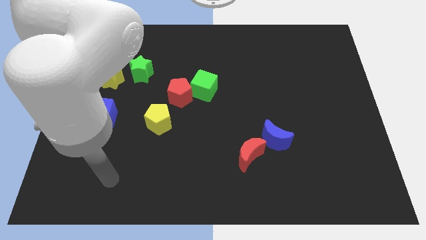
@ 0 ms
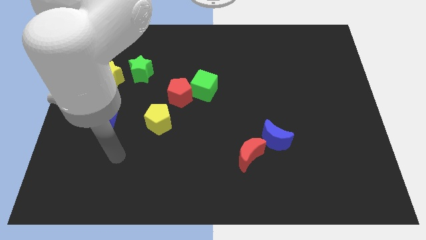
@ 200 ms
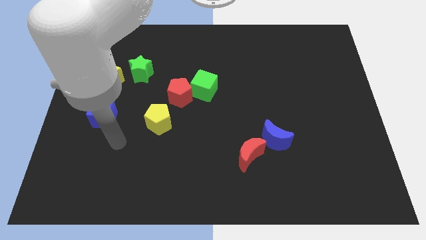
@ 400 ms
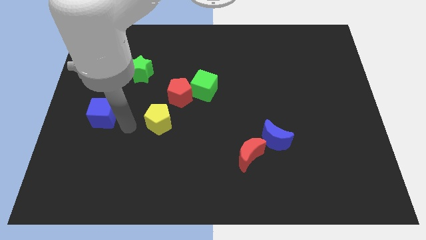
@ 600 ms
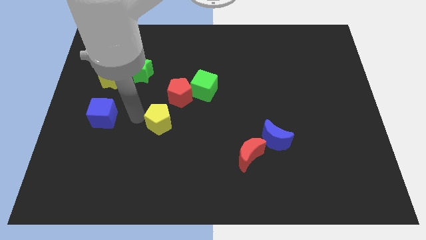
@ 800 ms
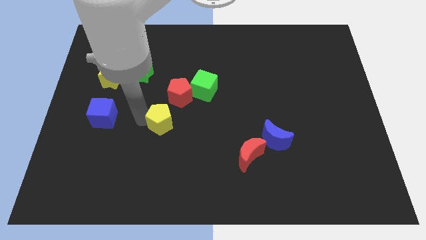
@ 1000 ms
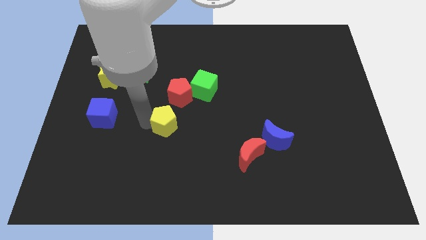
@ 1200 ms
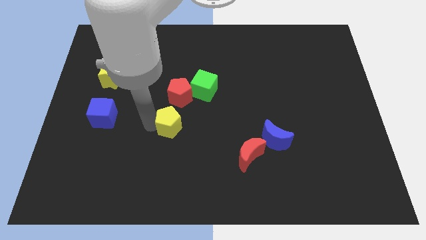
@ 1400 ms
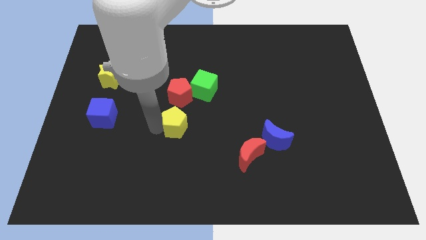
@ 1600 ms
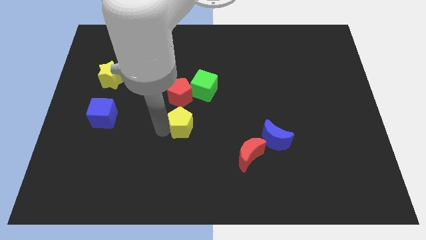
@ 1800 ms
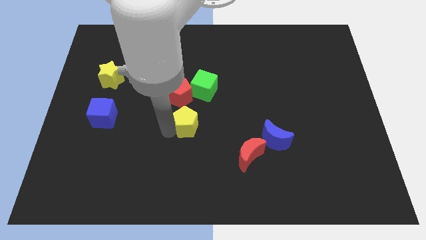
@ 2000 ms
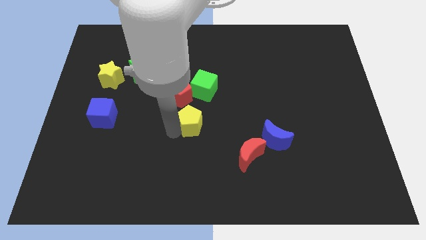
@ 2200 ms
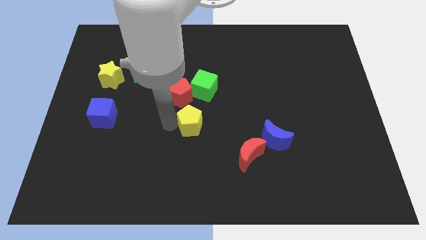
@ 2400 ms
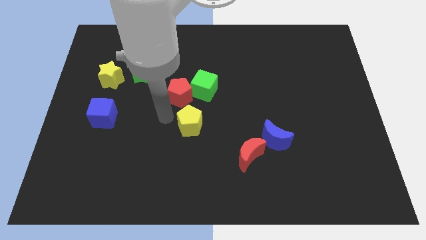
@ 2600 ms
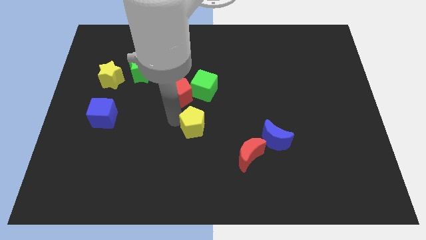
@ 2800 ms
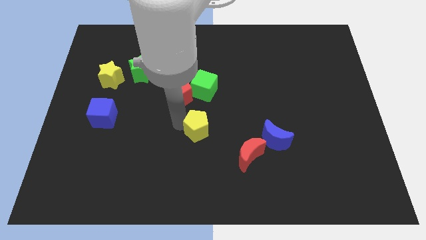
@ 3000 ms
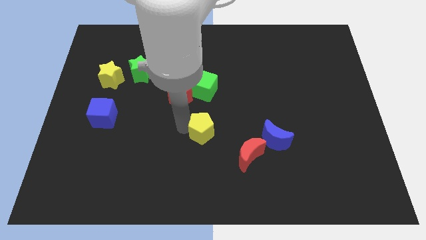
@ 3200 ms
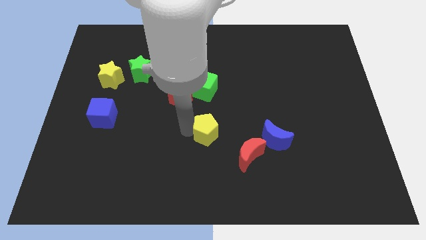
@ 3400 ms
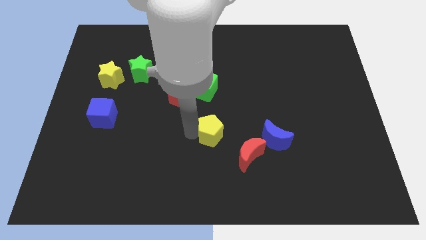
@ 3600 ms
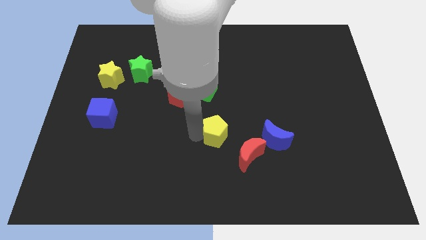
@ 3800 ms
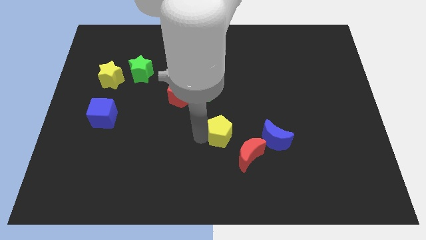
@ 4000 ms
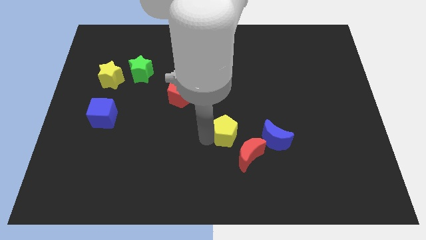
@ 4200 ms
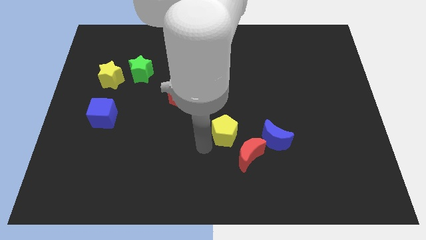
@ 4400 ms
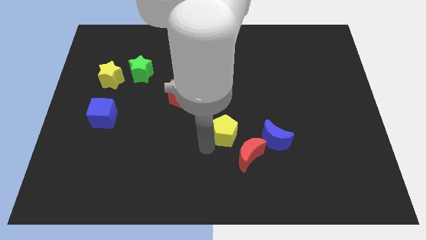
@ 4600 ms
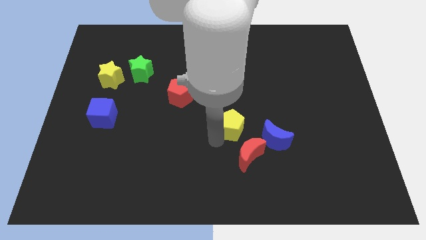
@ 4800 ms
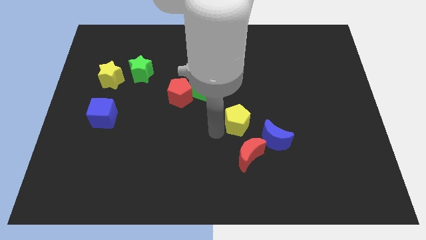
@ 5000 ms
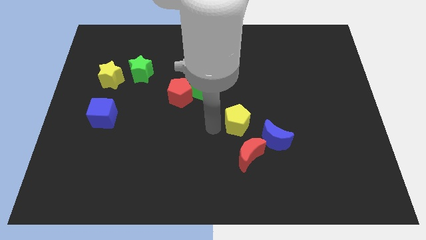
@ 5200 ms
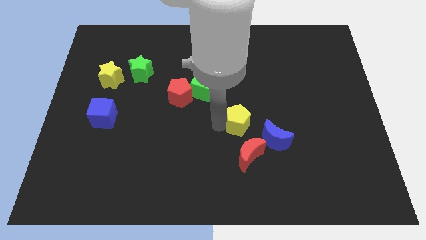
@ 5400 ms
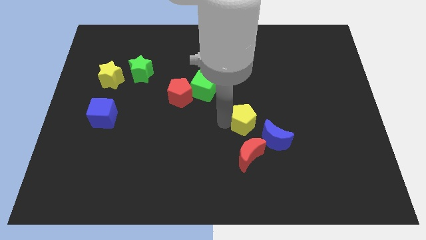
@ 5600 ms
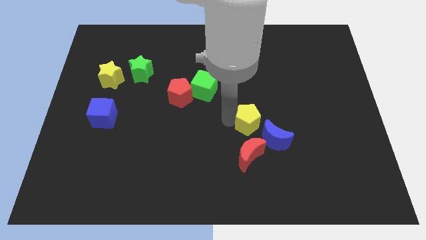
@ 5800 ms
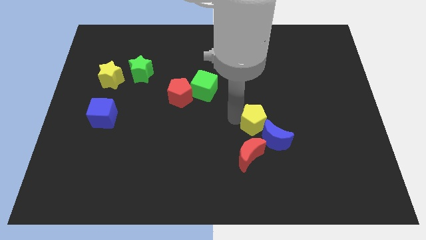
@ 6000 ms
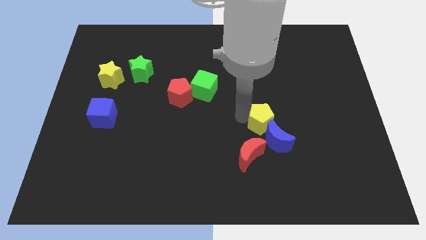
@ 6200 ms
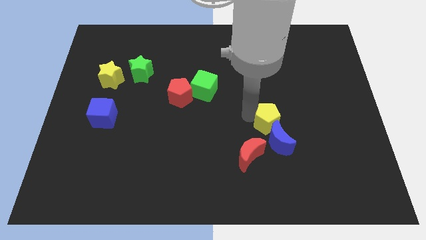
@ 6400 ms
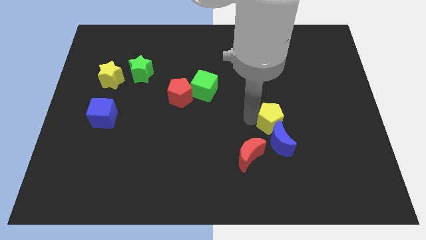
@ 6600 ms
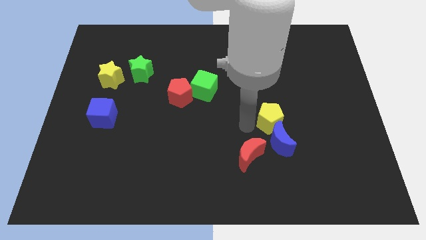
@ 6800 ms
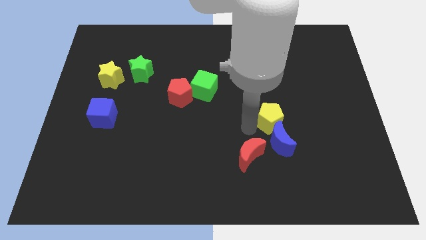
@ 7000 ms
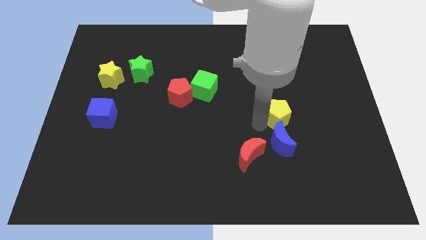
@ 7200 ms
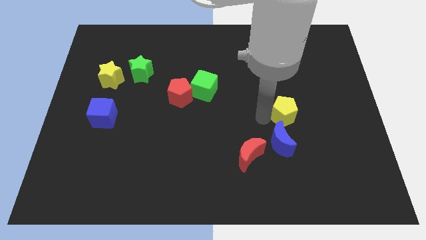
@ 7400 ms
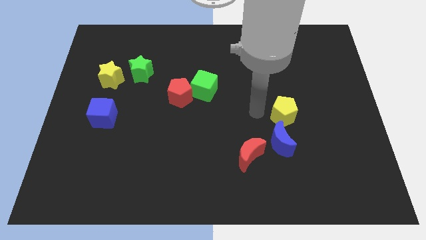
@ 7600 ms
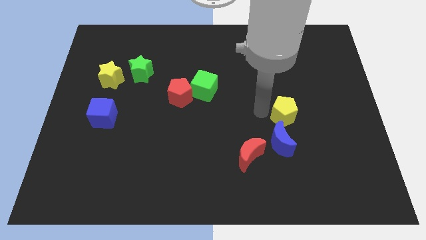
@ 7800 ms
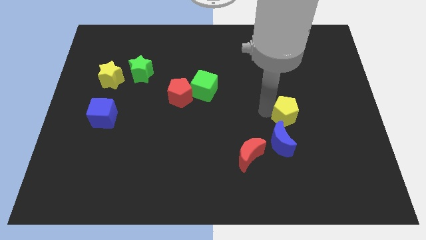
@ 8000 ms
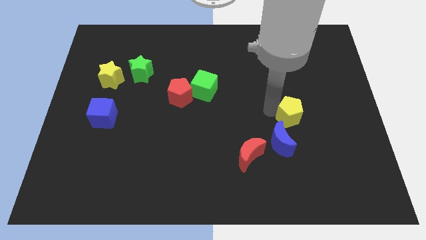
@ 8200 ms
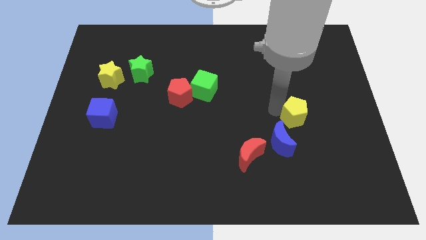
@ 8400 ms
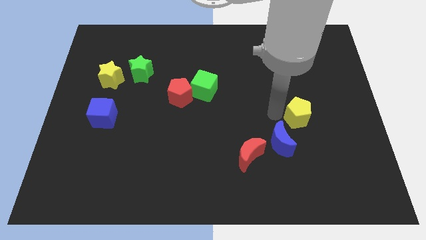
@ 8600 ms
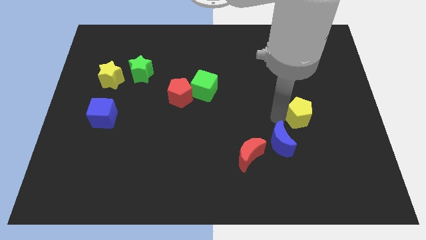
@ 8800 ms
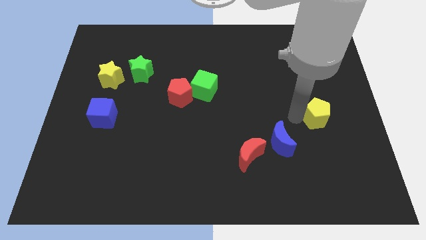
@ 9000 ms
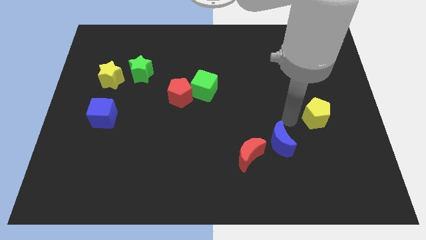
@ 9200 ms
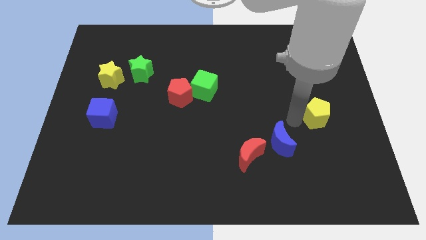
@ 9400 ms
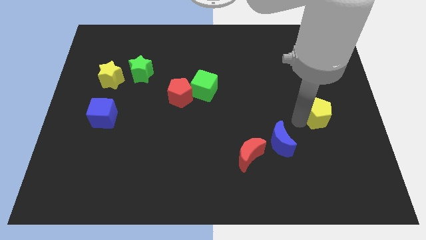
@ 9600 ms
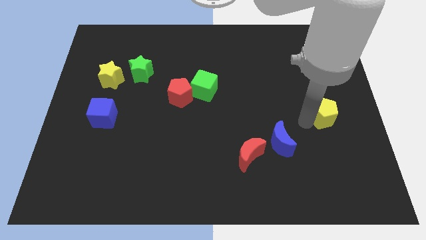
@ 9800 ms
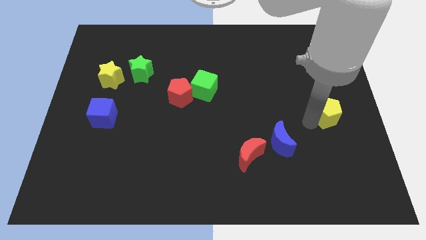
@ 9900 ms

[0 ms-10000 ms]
put the yellow pentagon to the center right

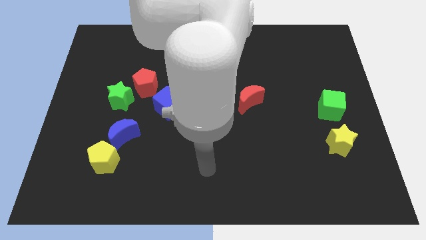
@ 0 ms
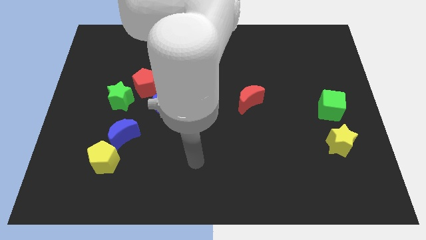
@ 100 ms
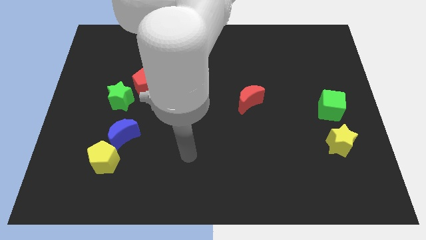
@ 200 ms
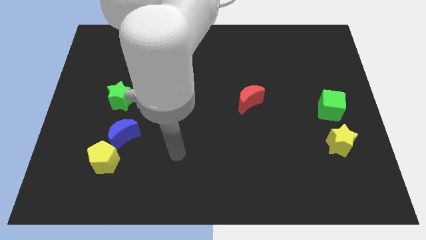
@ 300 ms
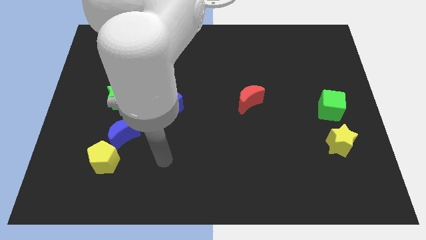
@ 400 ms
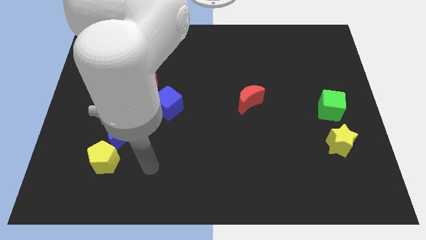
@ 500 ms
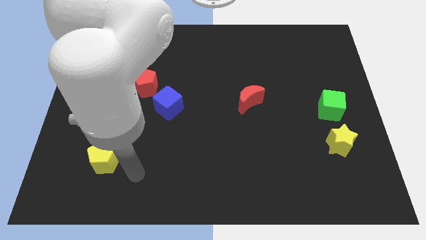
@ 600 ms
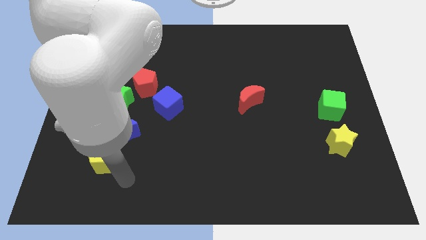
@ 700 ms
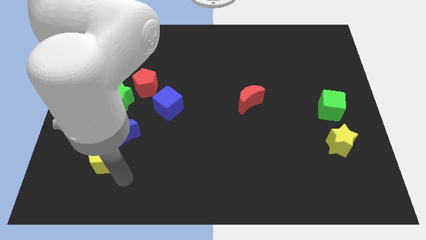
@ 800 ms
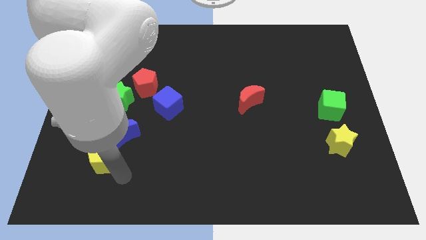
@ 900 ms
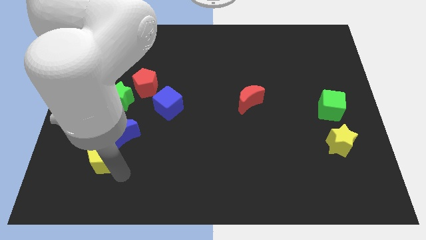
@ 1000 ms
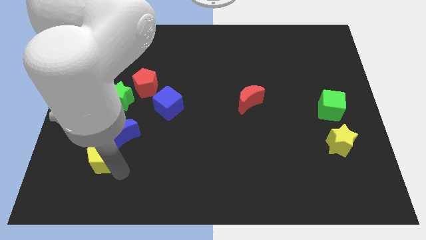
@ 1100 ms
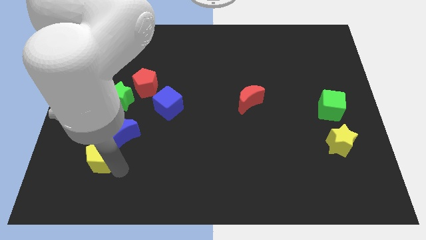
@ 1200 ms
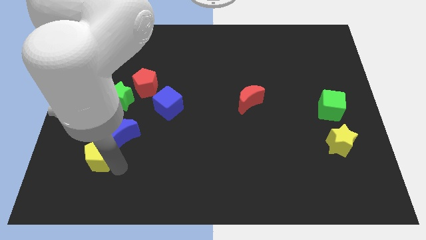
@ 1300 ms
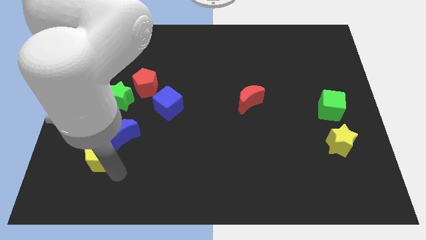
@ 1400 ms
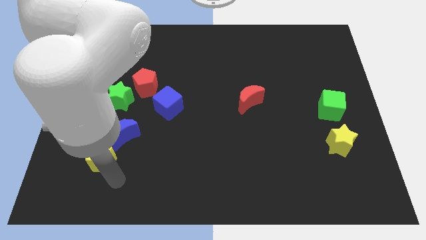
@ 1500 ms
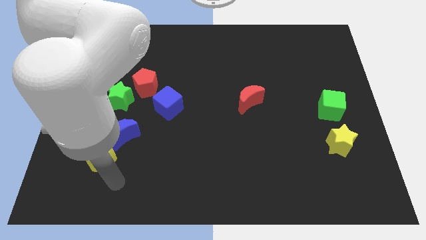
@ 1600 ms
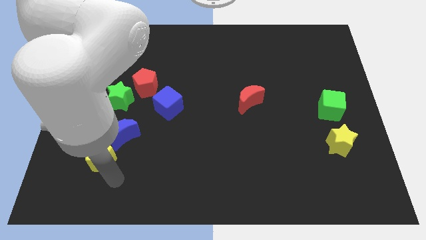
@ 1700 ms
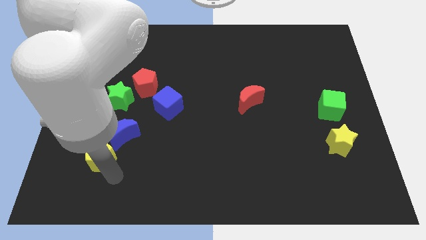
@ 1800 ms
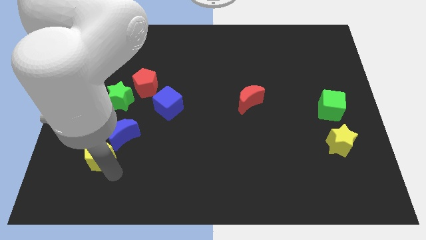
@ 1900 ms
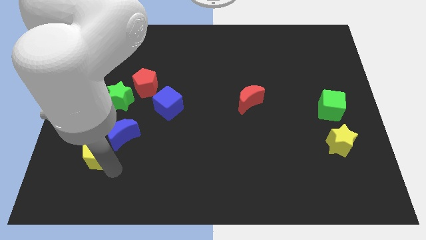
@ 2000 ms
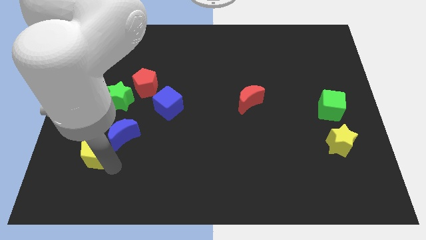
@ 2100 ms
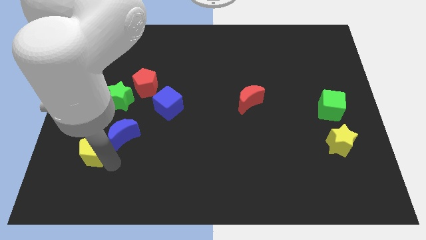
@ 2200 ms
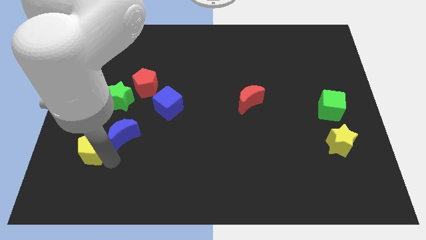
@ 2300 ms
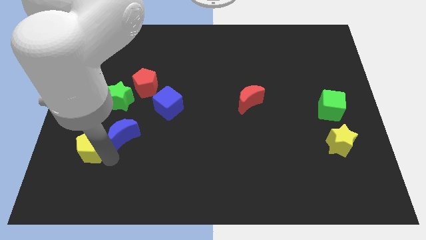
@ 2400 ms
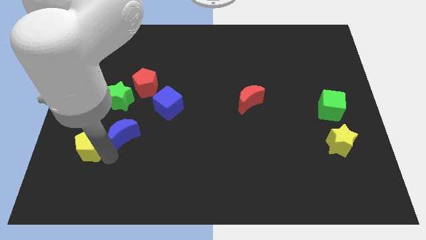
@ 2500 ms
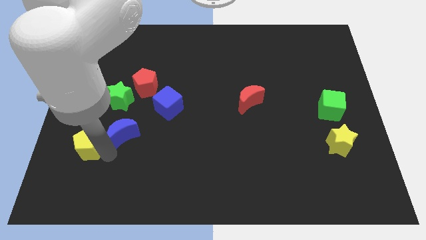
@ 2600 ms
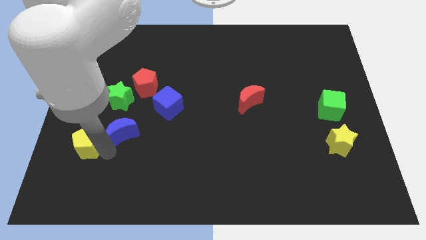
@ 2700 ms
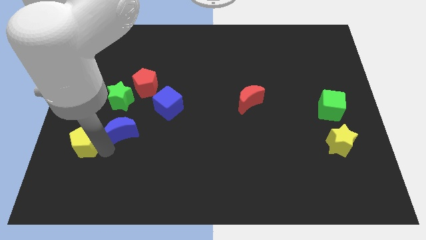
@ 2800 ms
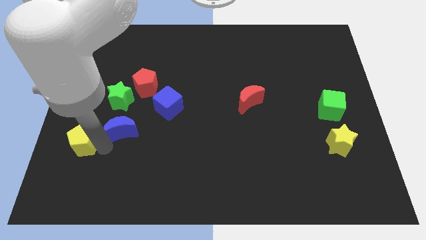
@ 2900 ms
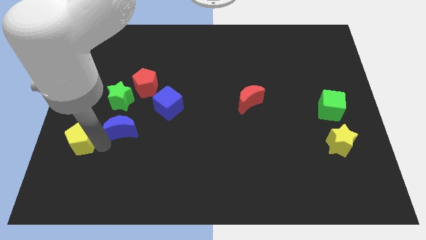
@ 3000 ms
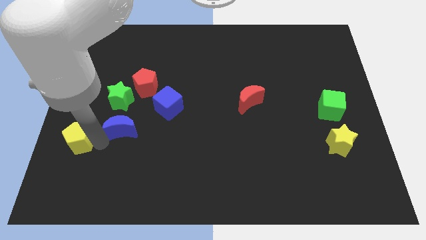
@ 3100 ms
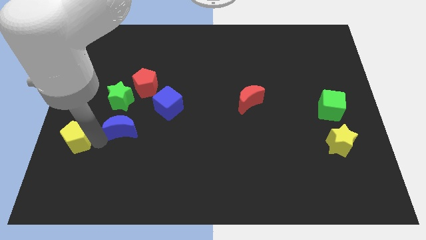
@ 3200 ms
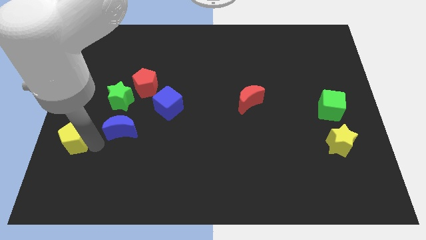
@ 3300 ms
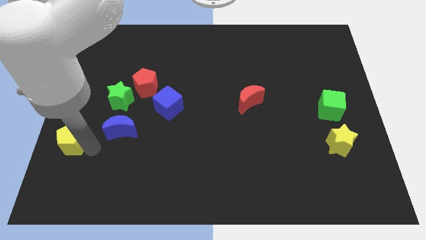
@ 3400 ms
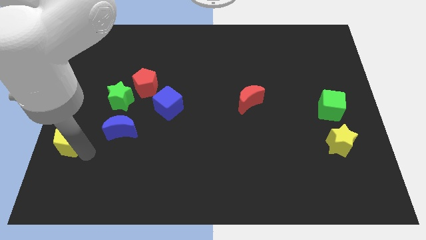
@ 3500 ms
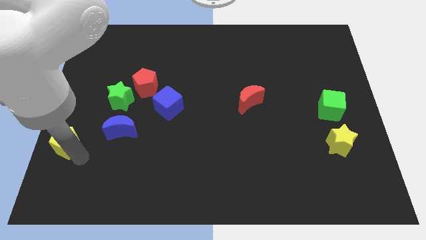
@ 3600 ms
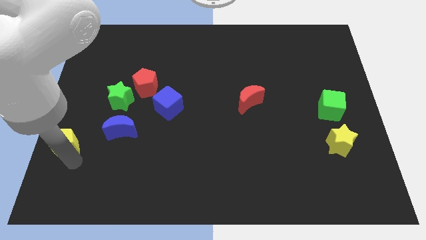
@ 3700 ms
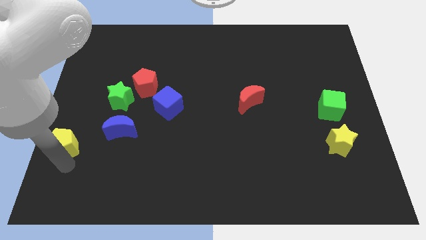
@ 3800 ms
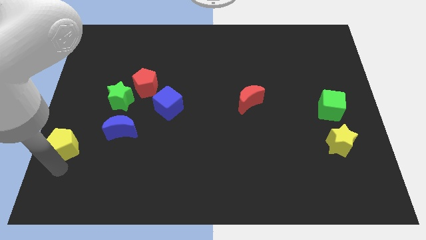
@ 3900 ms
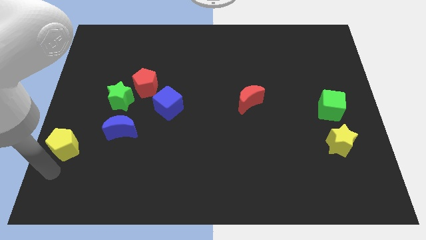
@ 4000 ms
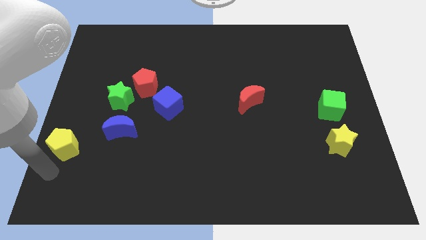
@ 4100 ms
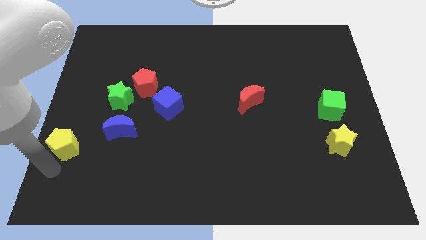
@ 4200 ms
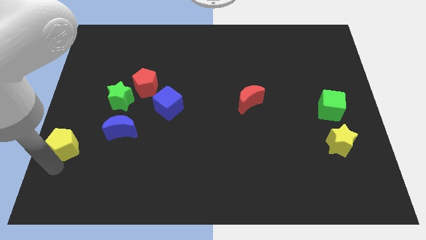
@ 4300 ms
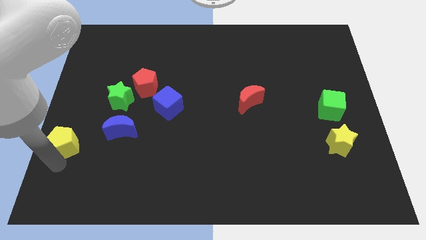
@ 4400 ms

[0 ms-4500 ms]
move the yellow pentagon to the center left
